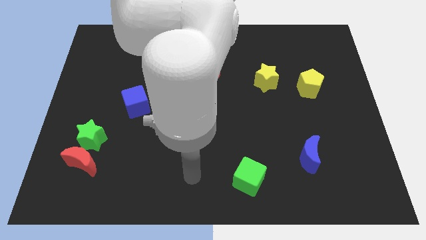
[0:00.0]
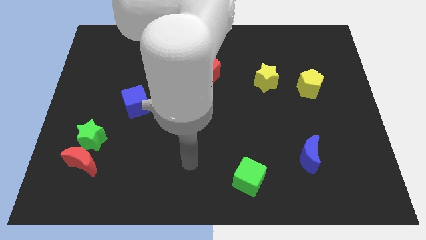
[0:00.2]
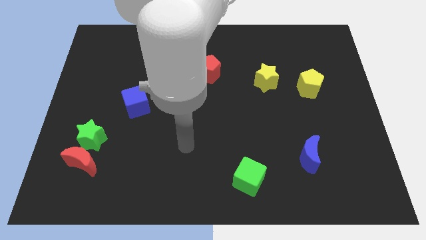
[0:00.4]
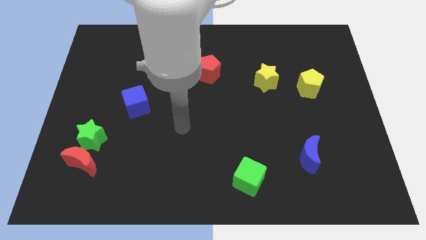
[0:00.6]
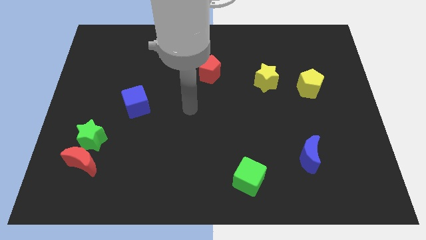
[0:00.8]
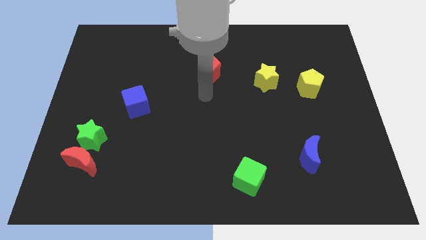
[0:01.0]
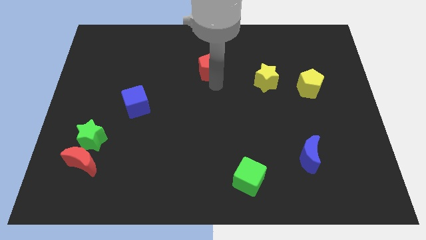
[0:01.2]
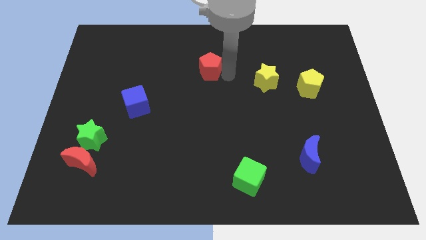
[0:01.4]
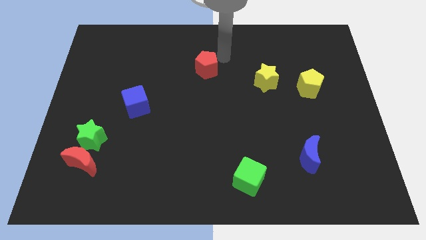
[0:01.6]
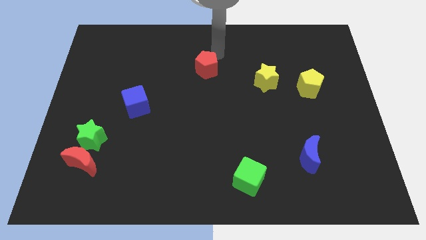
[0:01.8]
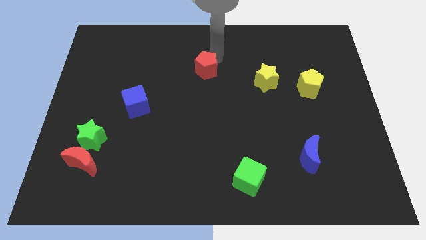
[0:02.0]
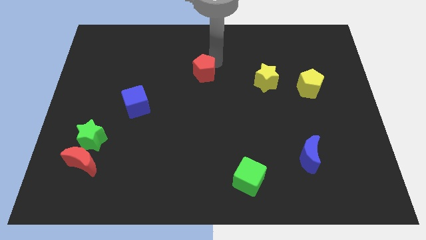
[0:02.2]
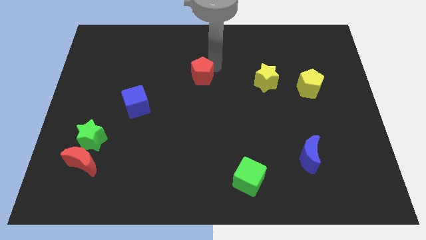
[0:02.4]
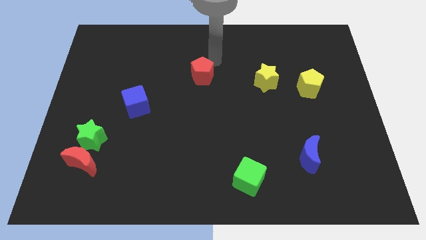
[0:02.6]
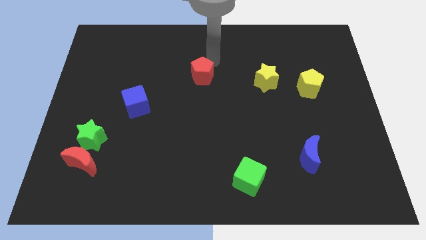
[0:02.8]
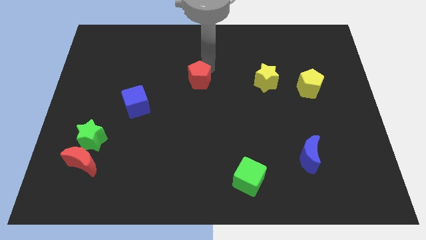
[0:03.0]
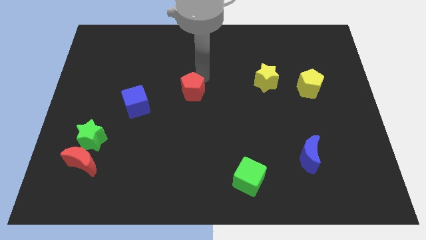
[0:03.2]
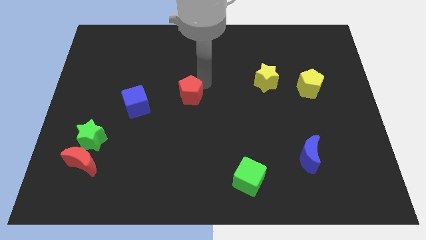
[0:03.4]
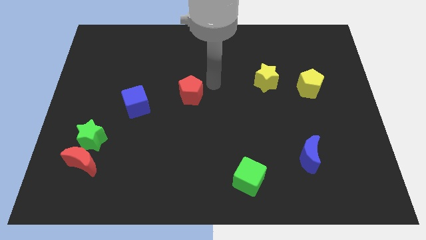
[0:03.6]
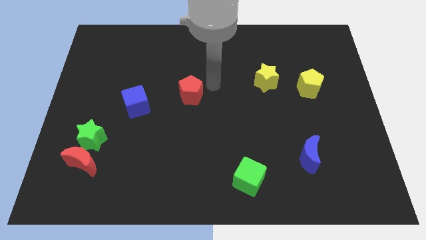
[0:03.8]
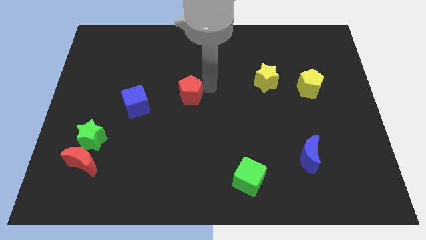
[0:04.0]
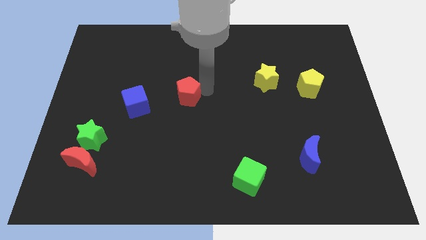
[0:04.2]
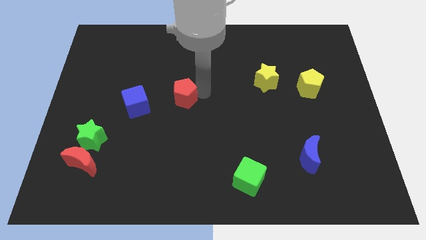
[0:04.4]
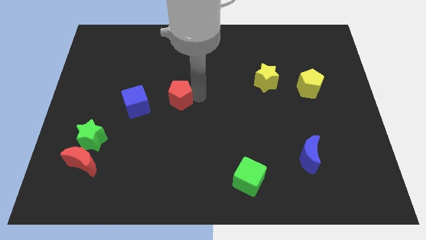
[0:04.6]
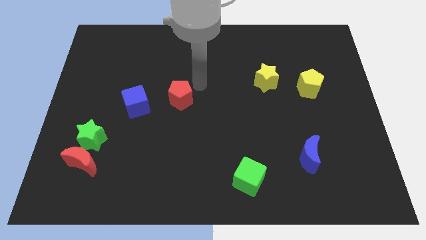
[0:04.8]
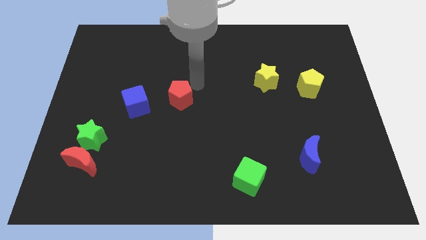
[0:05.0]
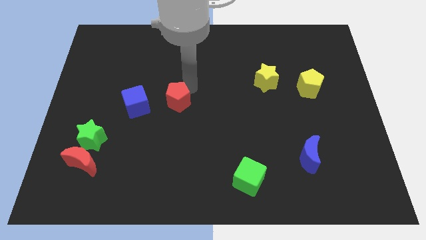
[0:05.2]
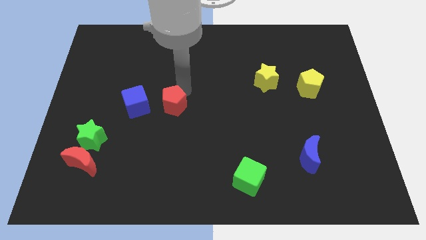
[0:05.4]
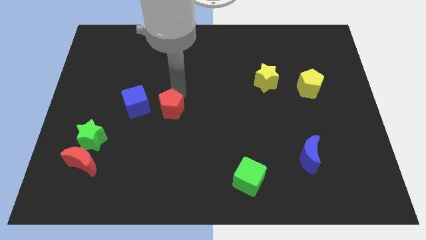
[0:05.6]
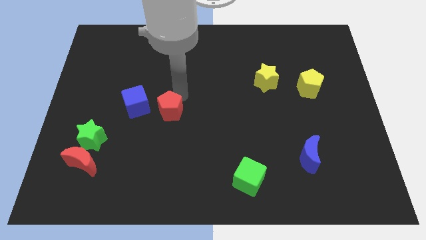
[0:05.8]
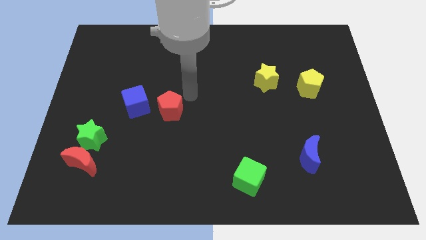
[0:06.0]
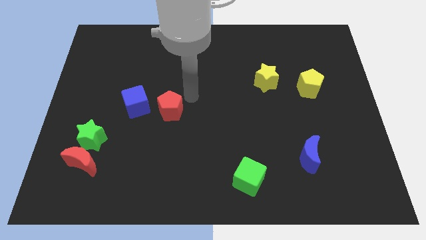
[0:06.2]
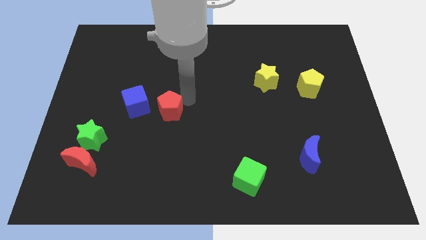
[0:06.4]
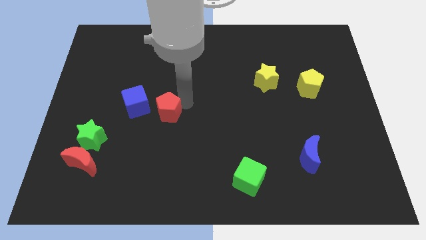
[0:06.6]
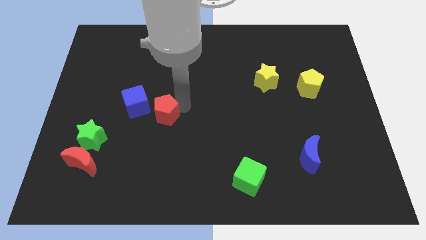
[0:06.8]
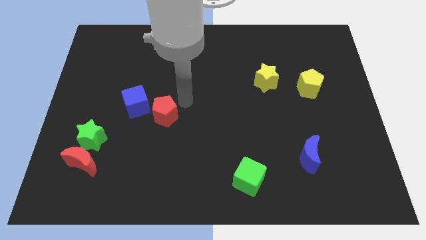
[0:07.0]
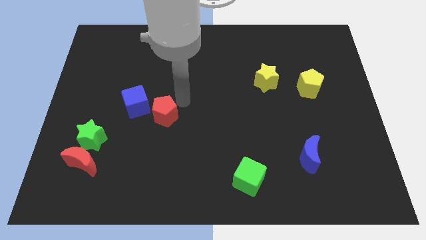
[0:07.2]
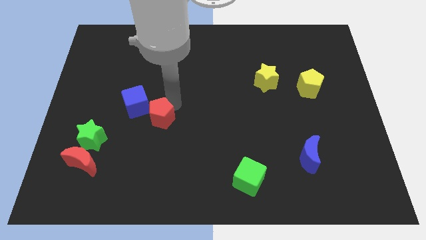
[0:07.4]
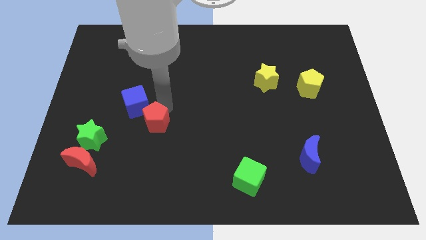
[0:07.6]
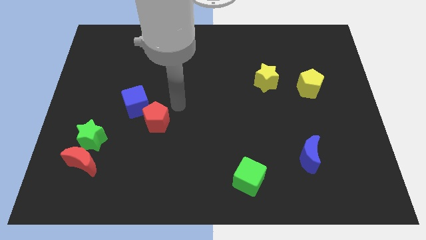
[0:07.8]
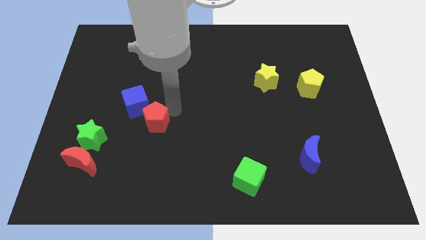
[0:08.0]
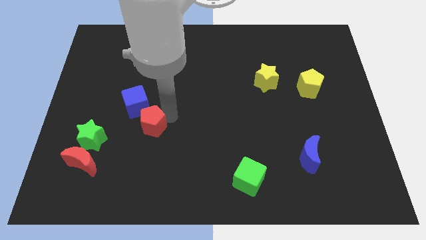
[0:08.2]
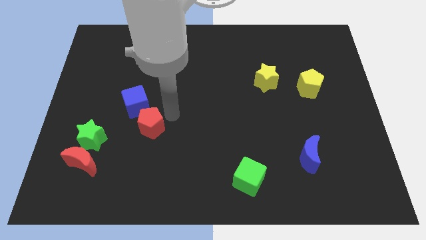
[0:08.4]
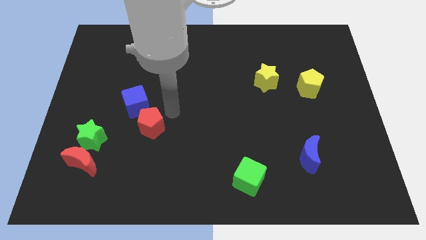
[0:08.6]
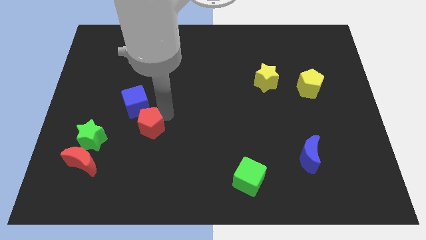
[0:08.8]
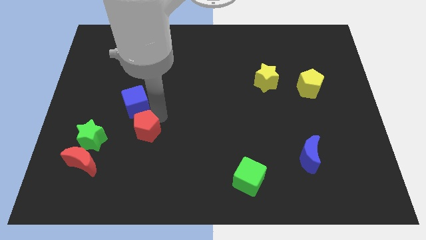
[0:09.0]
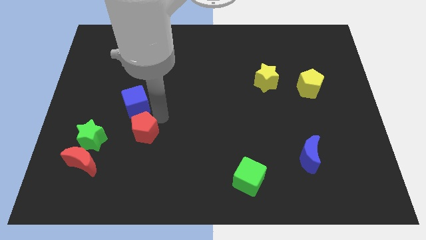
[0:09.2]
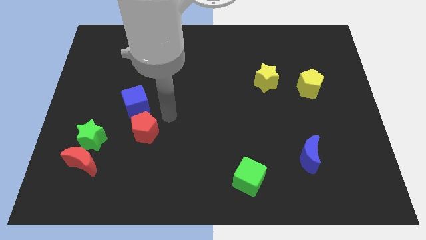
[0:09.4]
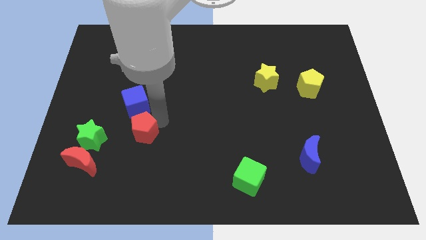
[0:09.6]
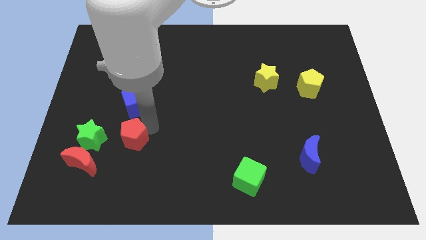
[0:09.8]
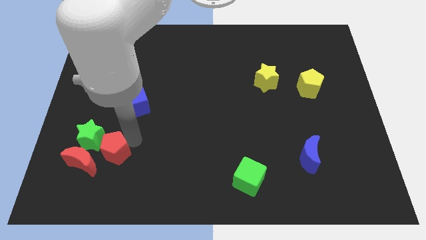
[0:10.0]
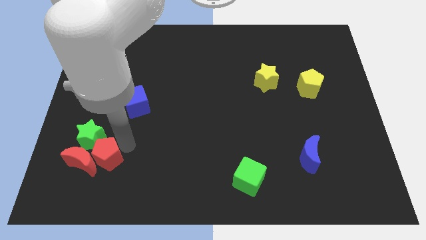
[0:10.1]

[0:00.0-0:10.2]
move the red pentagon to the red moon

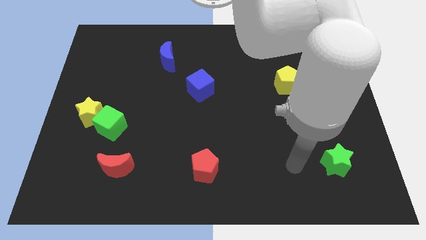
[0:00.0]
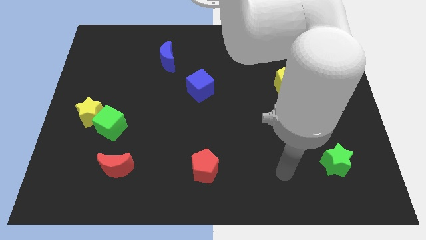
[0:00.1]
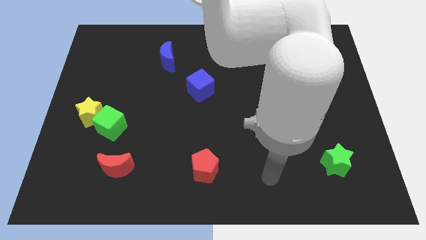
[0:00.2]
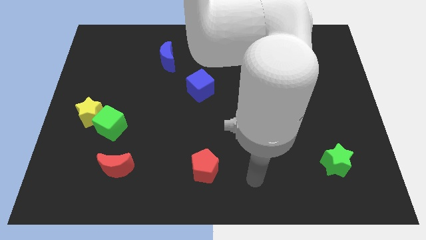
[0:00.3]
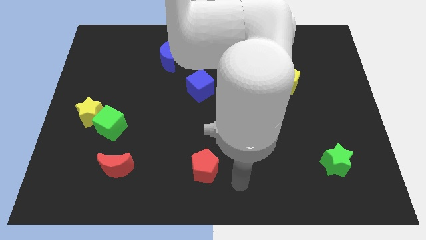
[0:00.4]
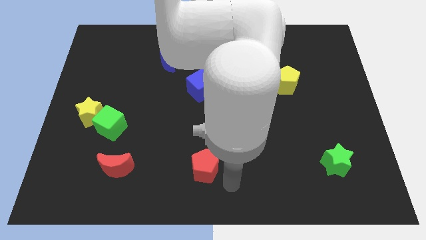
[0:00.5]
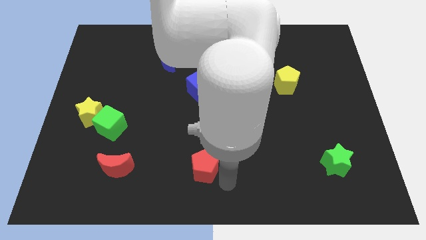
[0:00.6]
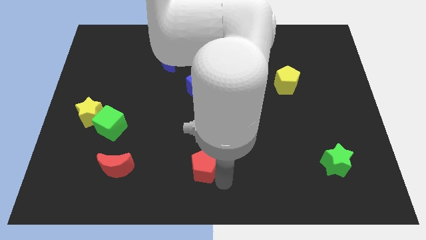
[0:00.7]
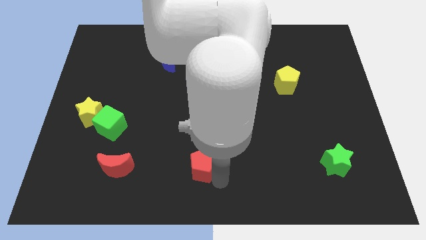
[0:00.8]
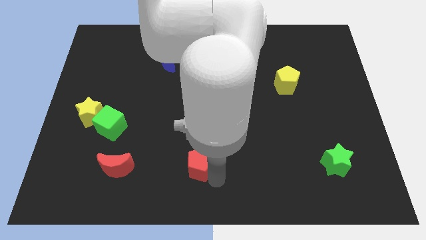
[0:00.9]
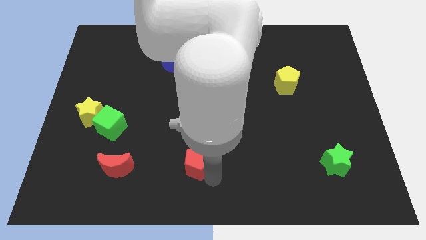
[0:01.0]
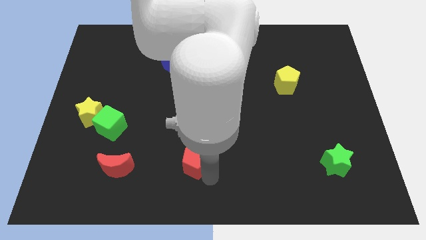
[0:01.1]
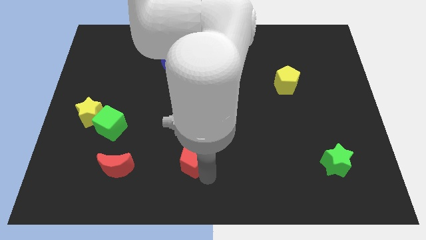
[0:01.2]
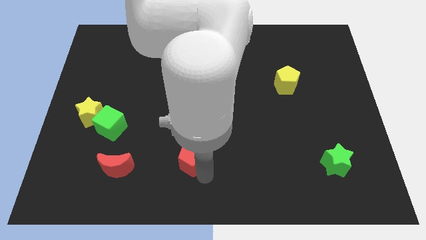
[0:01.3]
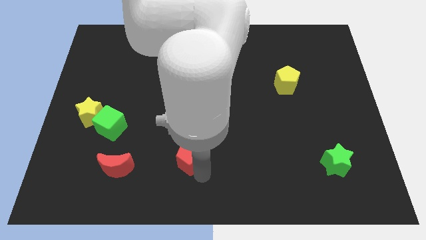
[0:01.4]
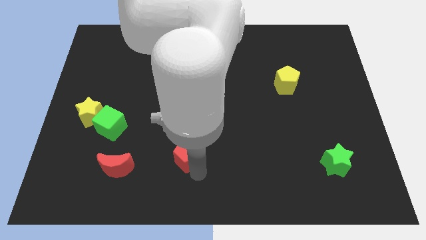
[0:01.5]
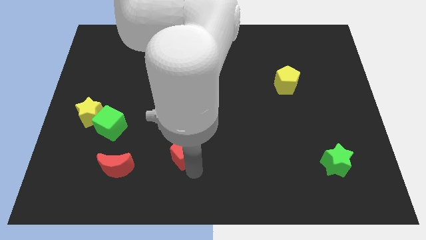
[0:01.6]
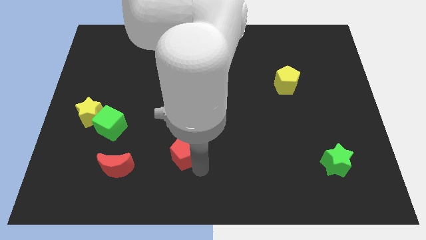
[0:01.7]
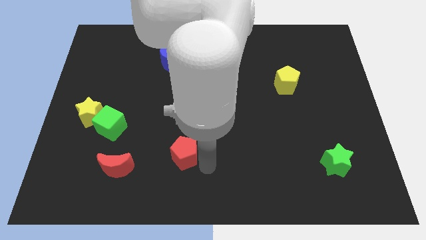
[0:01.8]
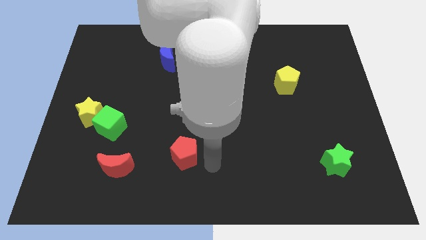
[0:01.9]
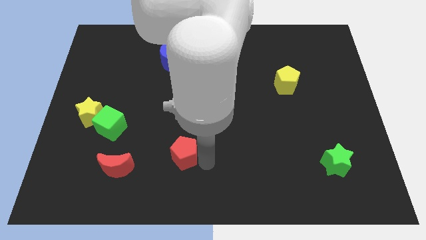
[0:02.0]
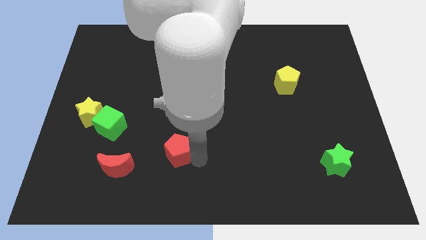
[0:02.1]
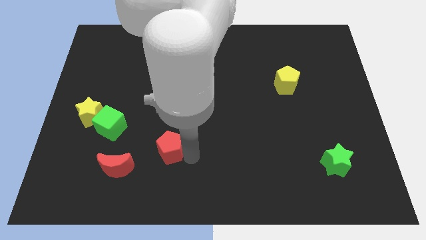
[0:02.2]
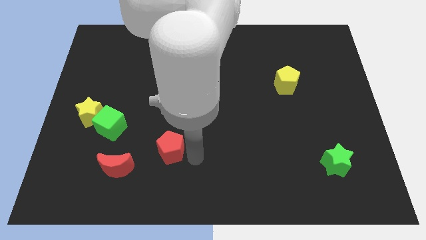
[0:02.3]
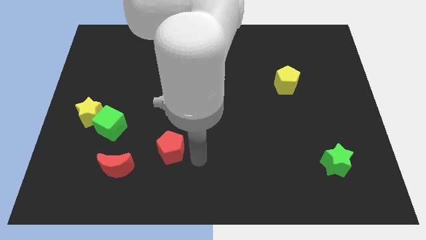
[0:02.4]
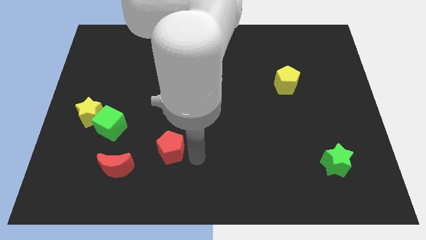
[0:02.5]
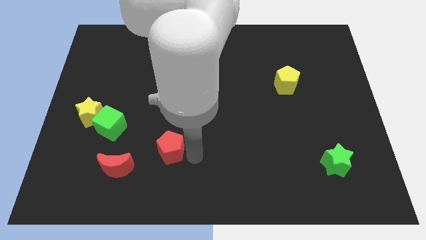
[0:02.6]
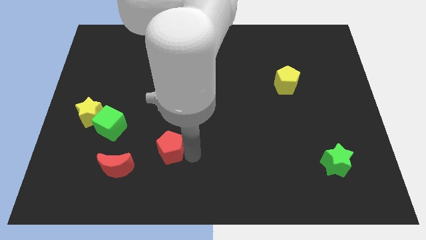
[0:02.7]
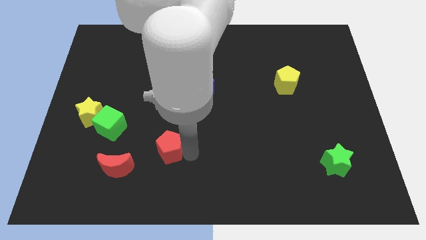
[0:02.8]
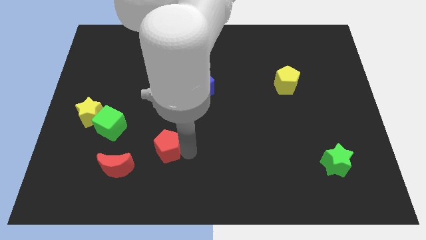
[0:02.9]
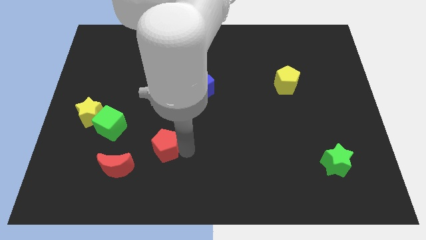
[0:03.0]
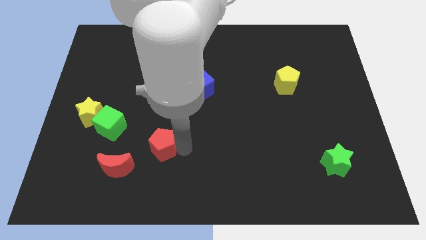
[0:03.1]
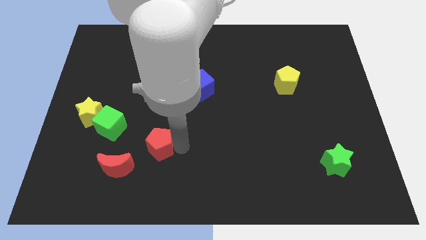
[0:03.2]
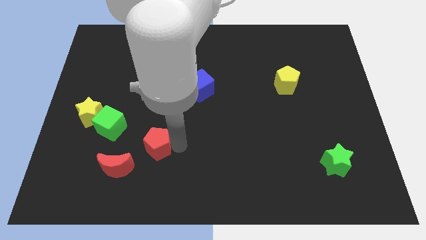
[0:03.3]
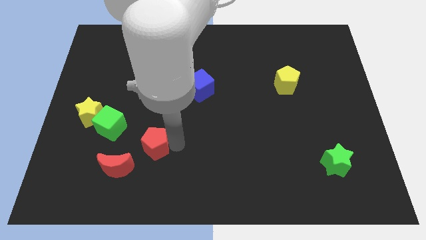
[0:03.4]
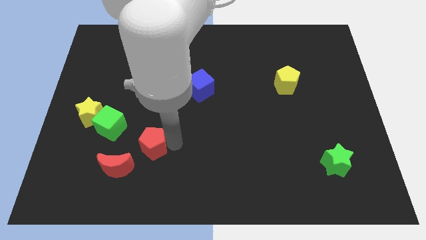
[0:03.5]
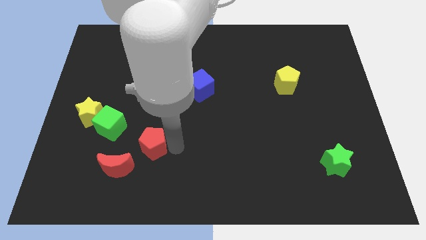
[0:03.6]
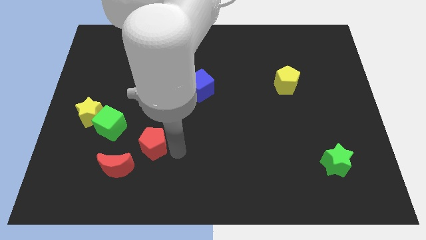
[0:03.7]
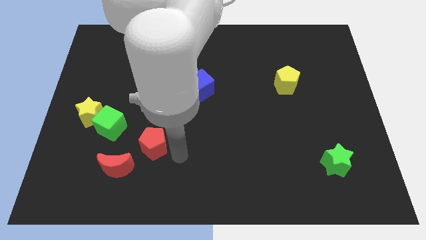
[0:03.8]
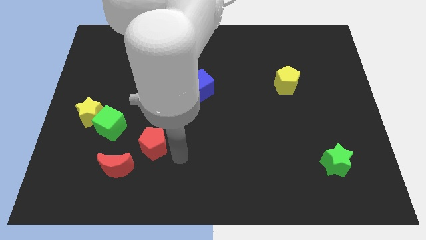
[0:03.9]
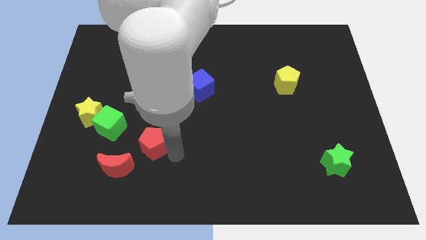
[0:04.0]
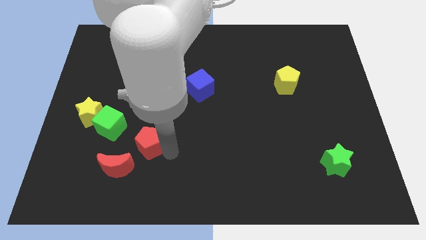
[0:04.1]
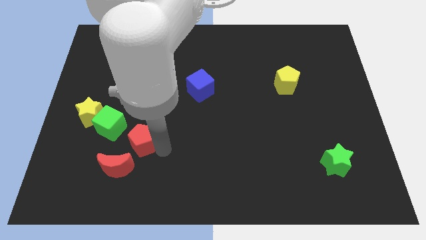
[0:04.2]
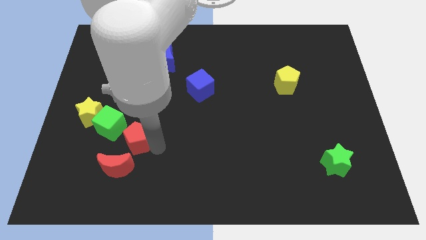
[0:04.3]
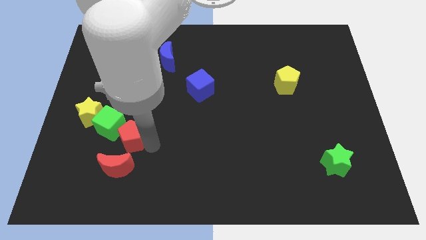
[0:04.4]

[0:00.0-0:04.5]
slide the red pentagon to the green cube
